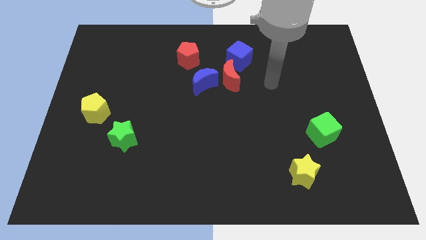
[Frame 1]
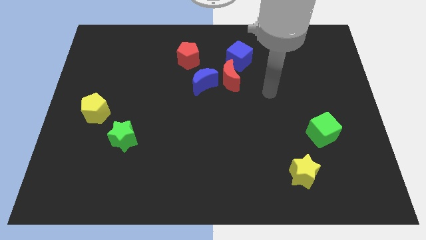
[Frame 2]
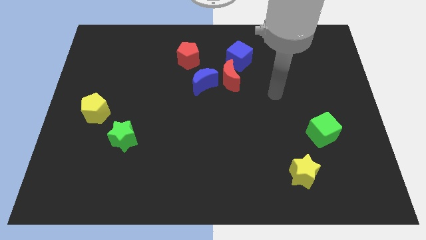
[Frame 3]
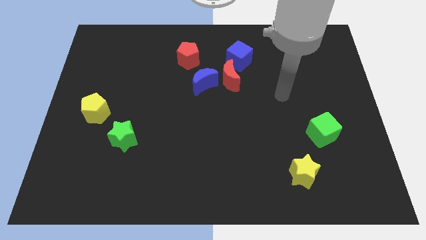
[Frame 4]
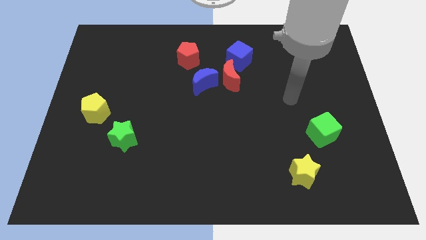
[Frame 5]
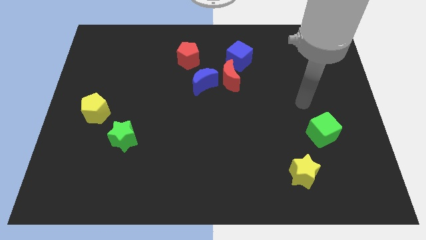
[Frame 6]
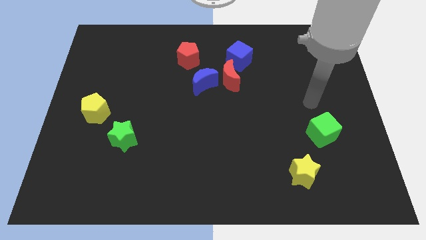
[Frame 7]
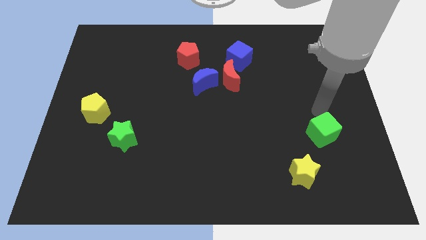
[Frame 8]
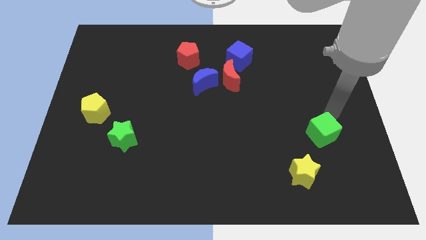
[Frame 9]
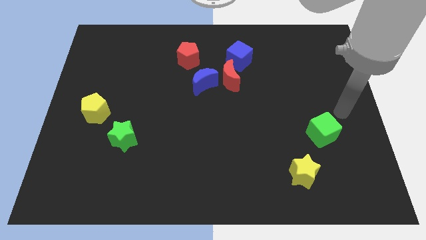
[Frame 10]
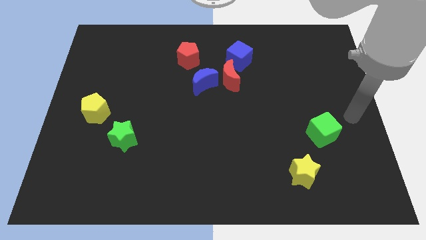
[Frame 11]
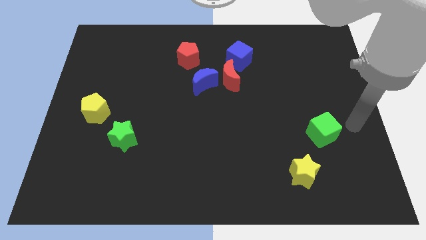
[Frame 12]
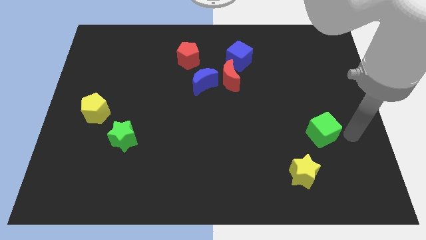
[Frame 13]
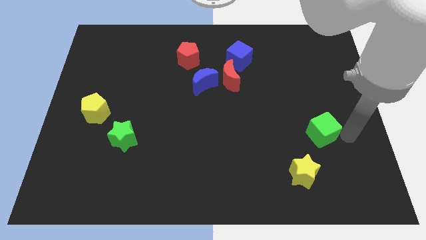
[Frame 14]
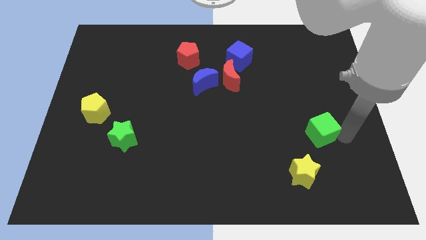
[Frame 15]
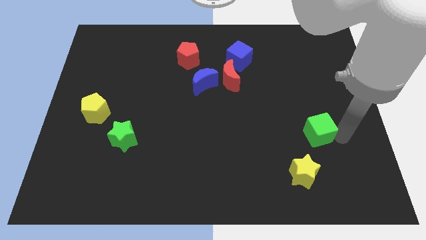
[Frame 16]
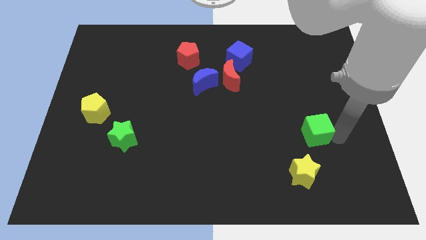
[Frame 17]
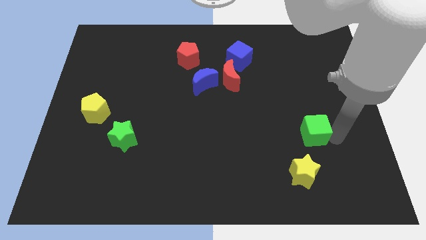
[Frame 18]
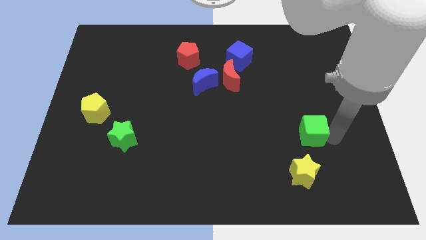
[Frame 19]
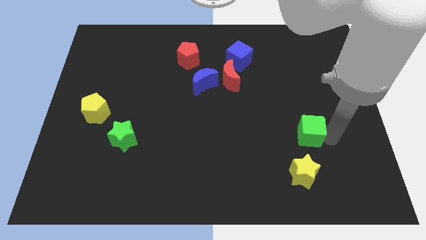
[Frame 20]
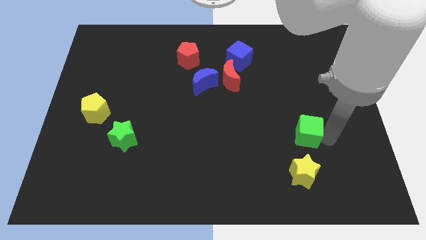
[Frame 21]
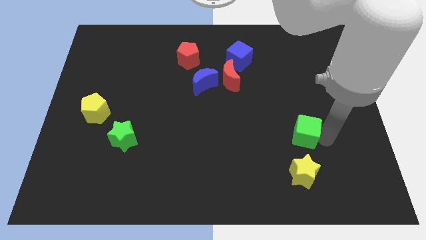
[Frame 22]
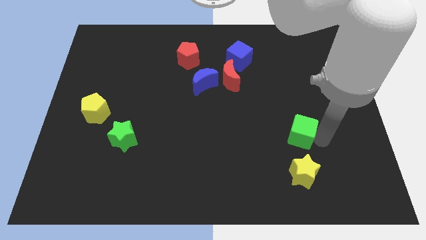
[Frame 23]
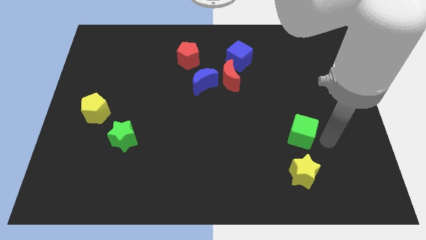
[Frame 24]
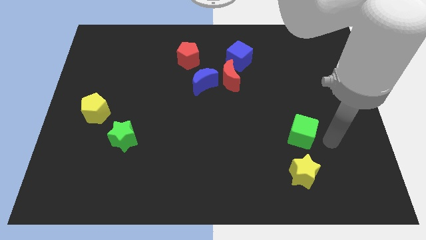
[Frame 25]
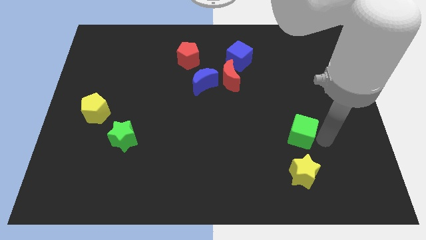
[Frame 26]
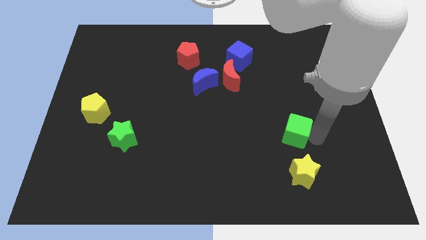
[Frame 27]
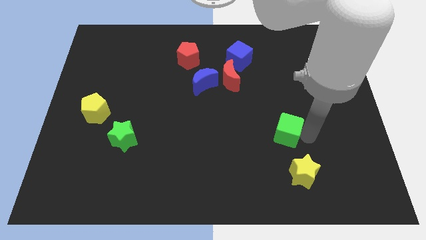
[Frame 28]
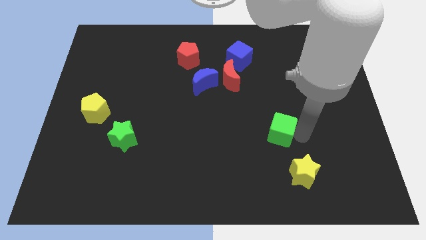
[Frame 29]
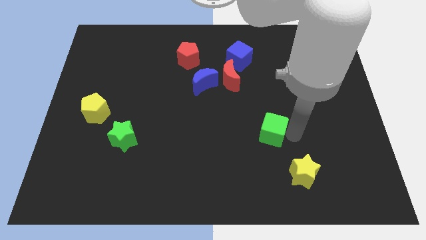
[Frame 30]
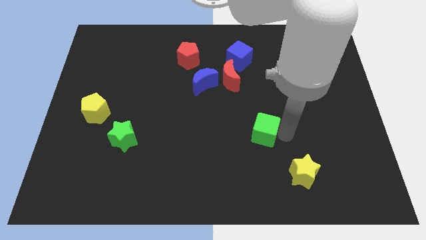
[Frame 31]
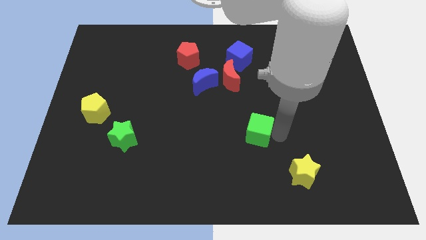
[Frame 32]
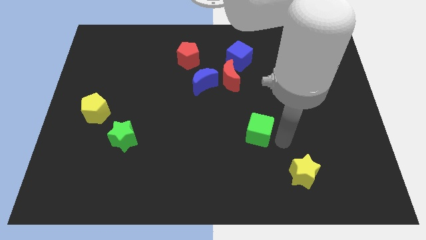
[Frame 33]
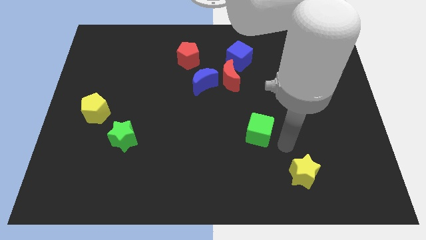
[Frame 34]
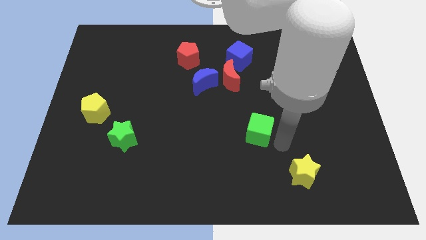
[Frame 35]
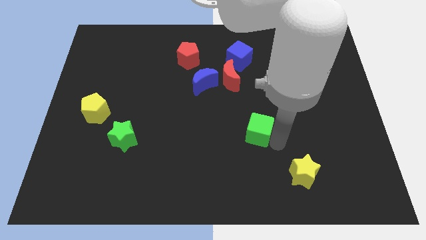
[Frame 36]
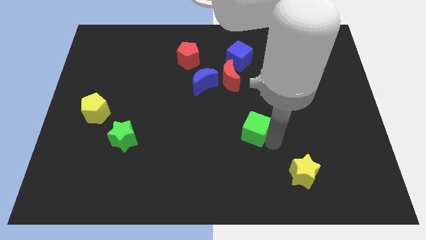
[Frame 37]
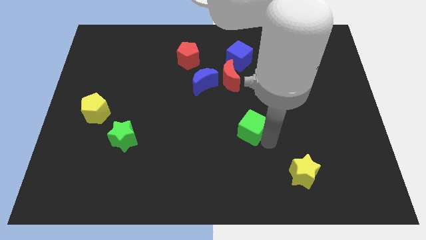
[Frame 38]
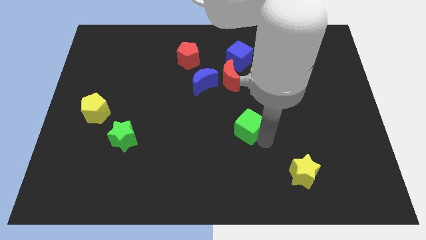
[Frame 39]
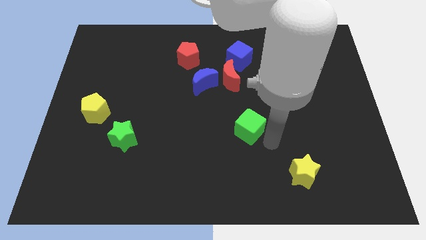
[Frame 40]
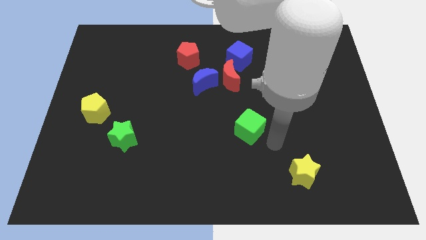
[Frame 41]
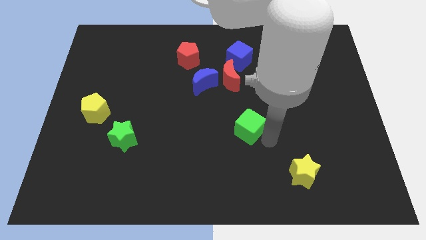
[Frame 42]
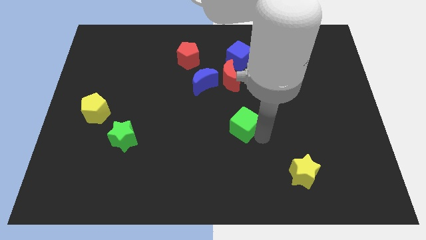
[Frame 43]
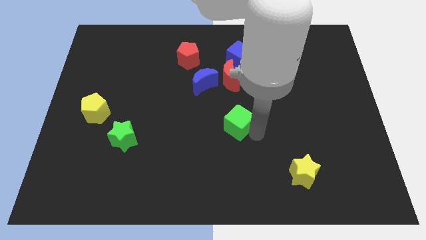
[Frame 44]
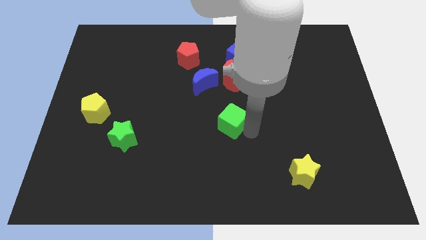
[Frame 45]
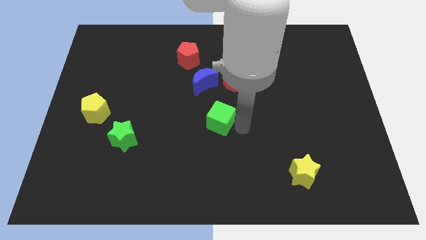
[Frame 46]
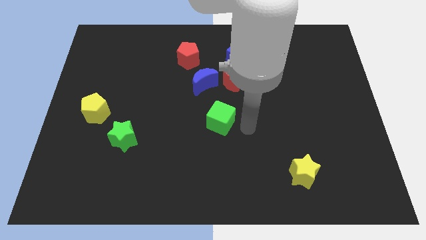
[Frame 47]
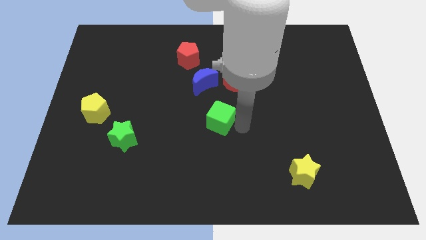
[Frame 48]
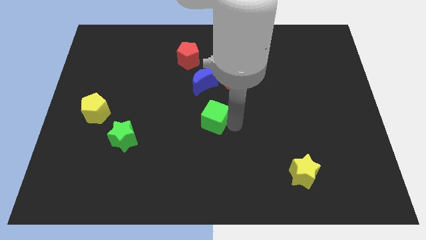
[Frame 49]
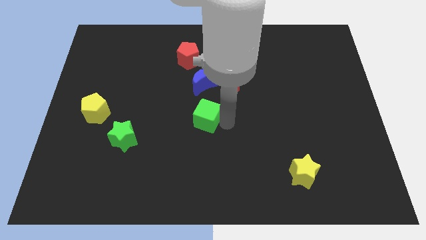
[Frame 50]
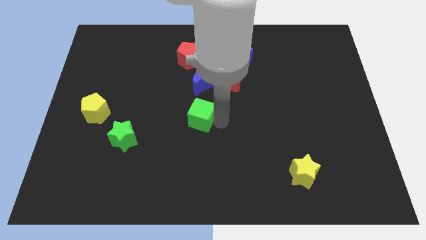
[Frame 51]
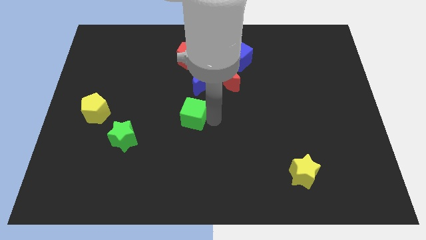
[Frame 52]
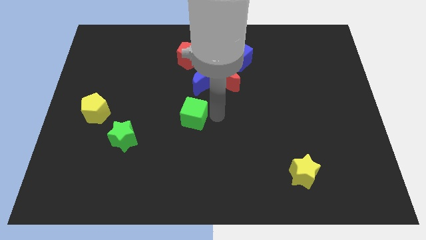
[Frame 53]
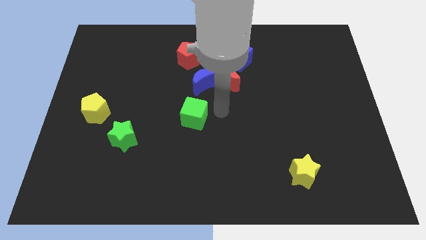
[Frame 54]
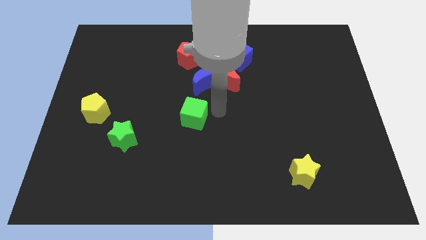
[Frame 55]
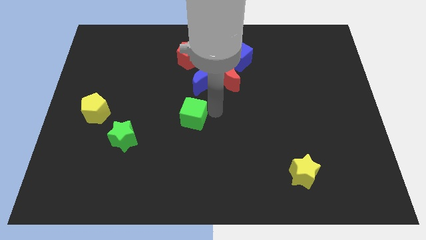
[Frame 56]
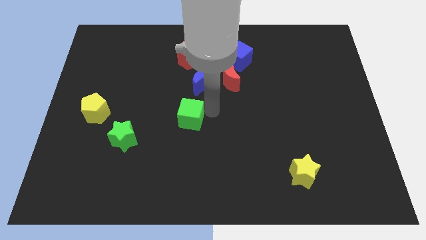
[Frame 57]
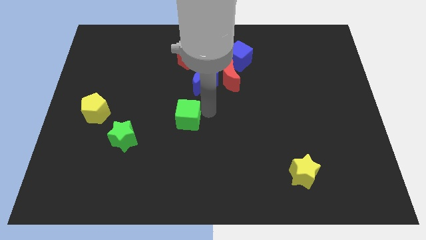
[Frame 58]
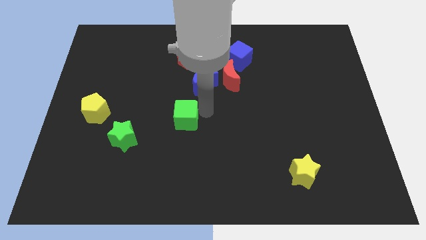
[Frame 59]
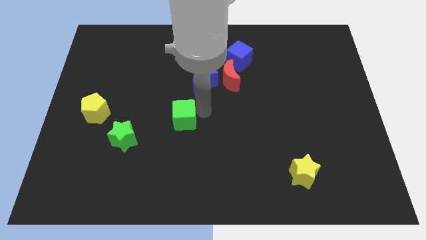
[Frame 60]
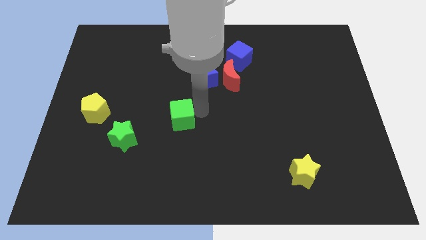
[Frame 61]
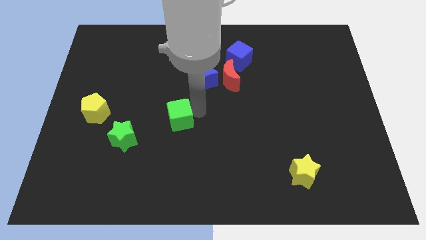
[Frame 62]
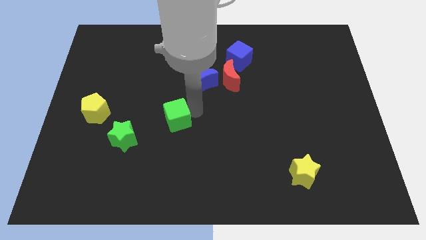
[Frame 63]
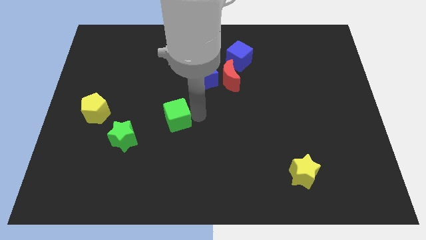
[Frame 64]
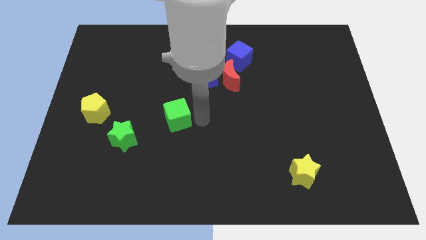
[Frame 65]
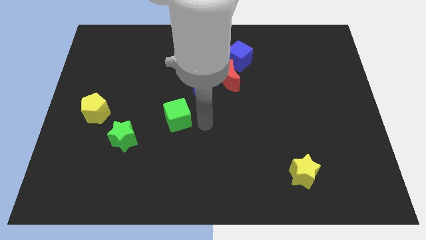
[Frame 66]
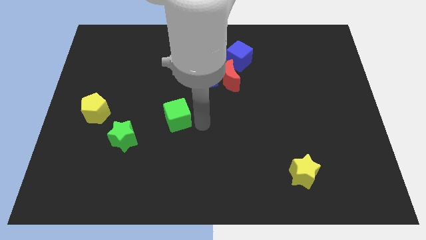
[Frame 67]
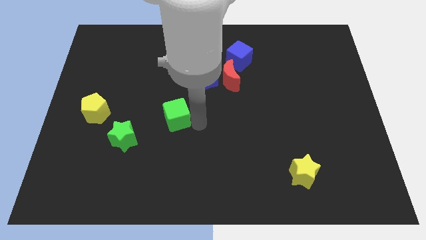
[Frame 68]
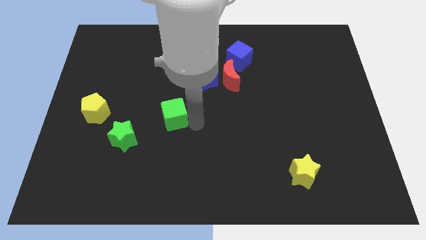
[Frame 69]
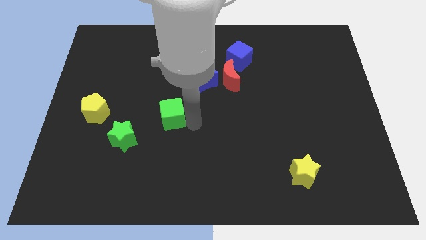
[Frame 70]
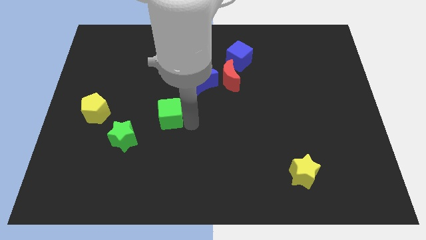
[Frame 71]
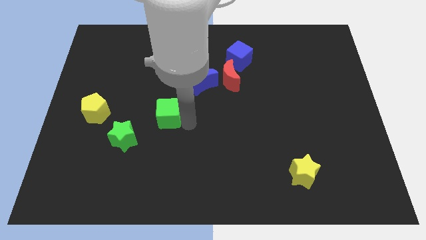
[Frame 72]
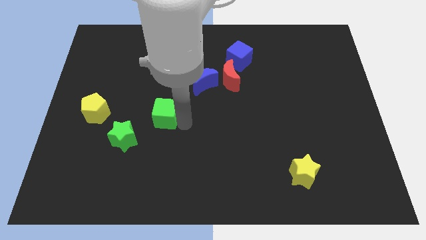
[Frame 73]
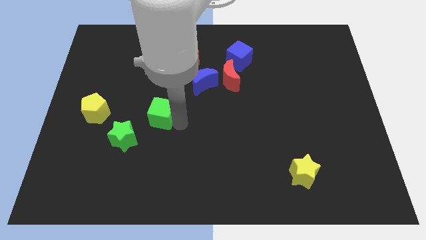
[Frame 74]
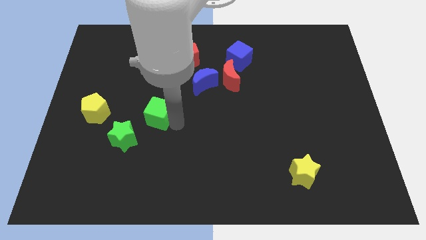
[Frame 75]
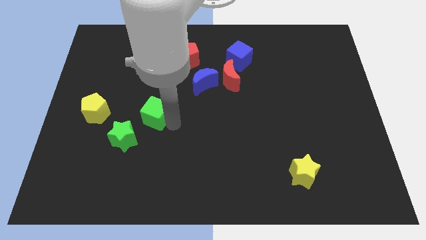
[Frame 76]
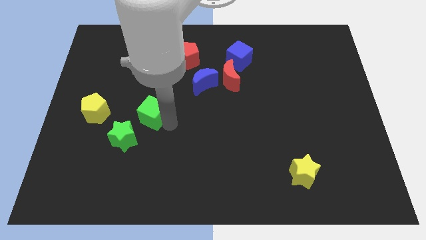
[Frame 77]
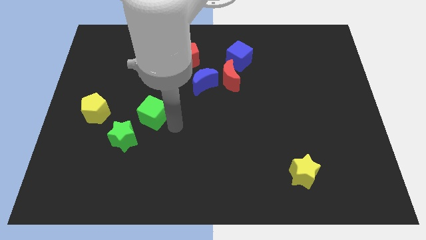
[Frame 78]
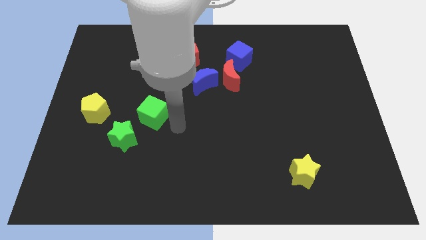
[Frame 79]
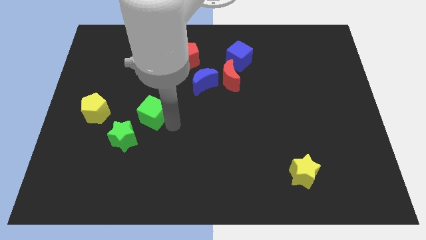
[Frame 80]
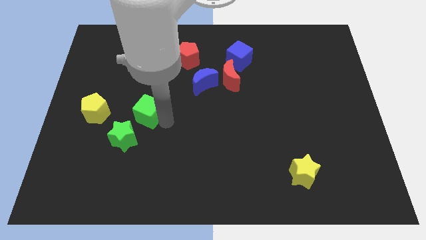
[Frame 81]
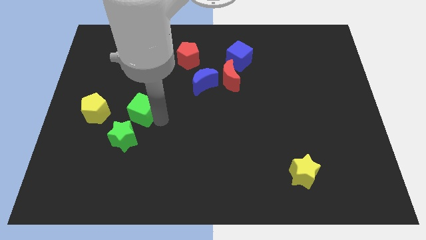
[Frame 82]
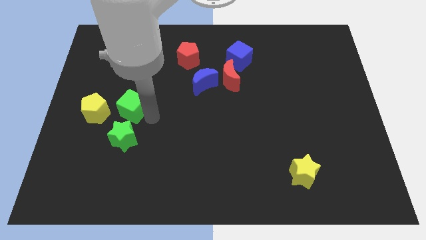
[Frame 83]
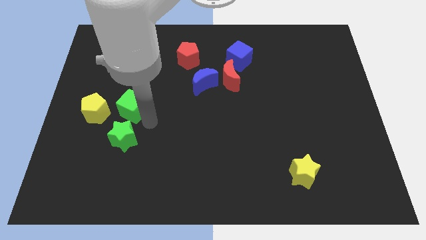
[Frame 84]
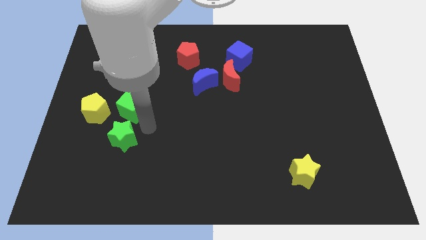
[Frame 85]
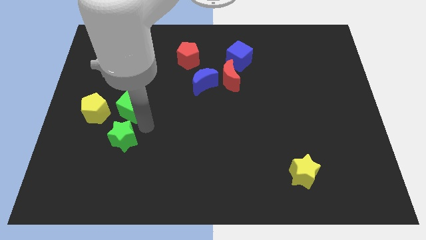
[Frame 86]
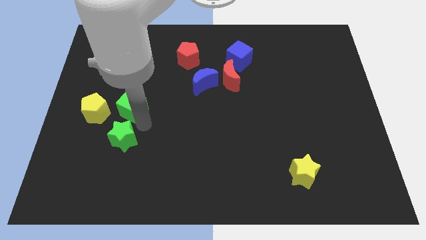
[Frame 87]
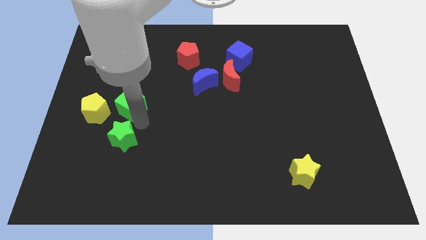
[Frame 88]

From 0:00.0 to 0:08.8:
push the green cube diagonally up and to the right of the yellow pentagon
